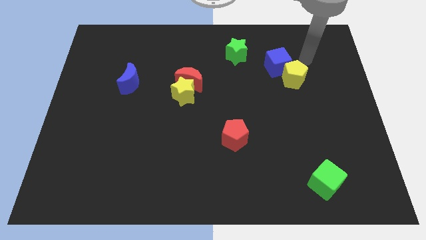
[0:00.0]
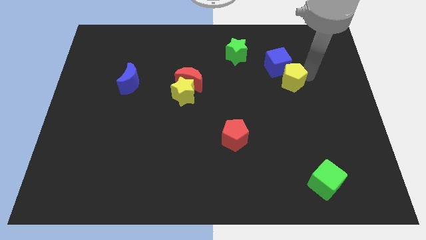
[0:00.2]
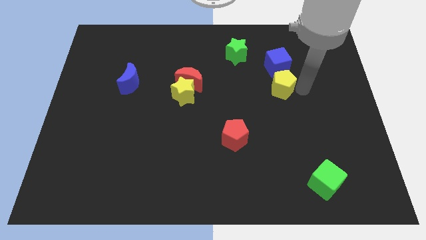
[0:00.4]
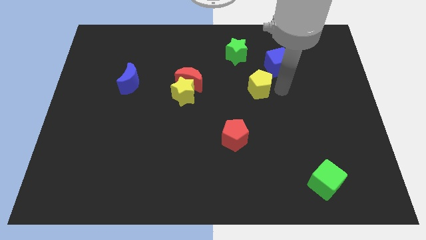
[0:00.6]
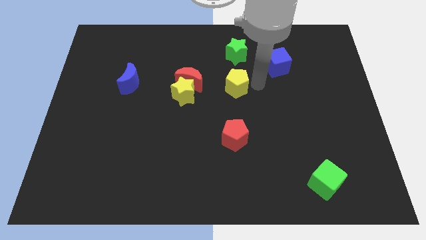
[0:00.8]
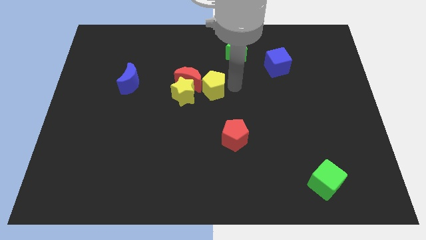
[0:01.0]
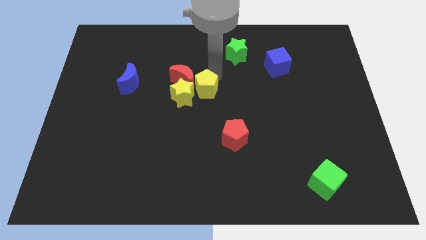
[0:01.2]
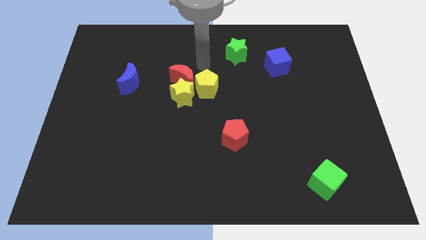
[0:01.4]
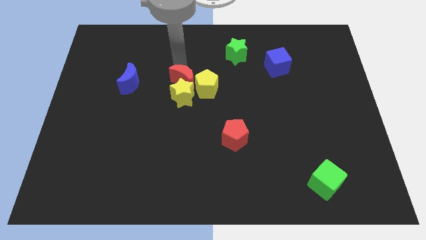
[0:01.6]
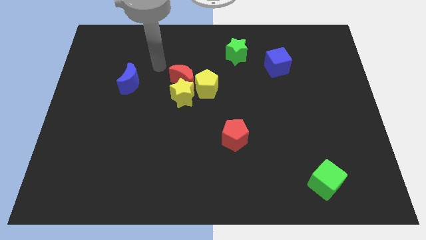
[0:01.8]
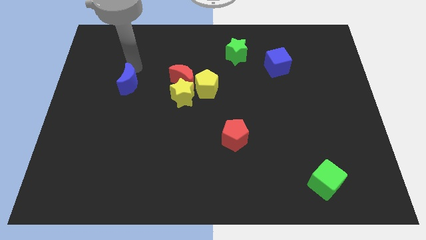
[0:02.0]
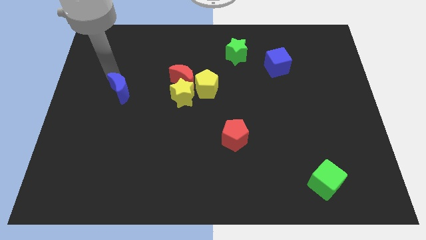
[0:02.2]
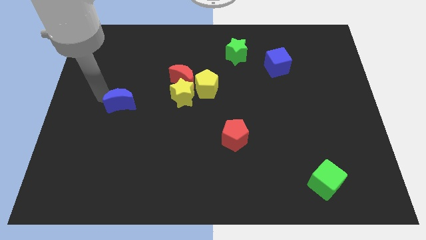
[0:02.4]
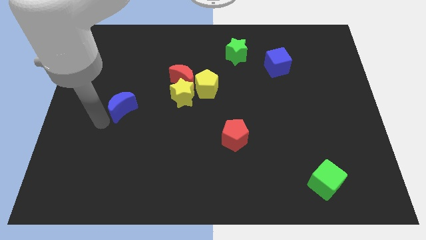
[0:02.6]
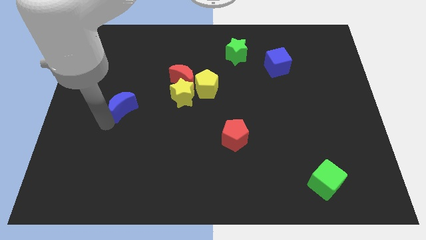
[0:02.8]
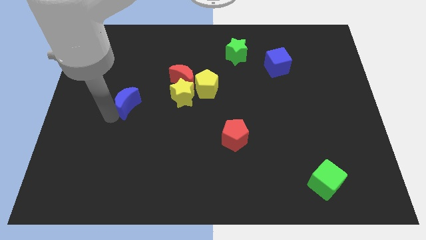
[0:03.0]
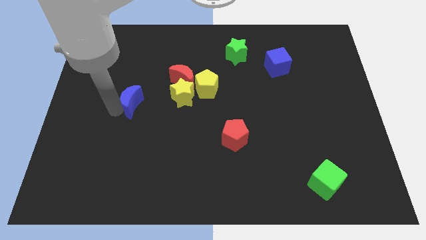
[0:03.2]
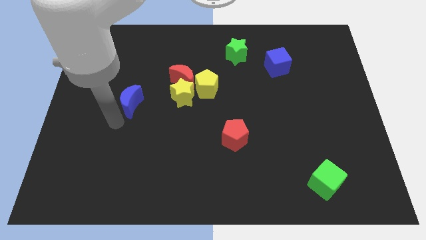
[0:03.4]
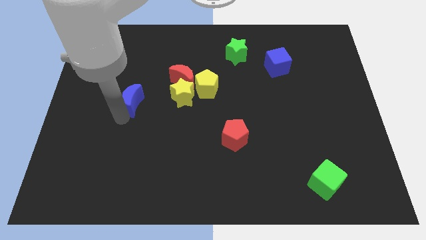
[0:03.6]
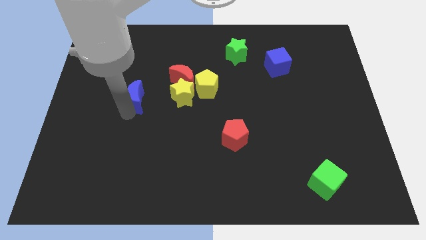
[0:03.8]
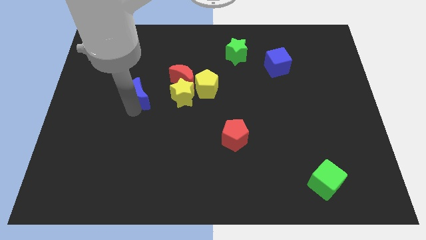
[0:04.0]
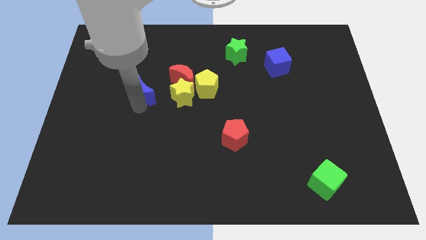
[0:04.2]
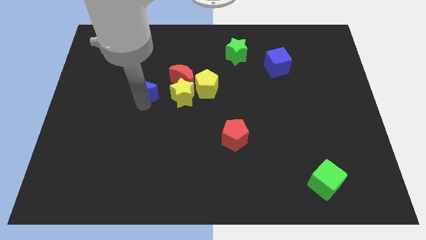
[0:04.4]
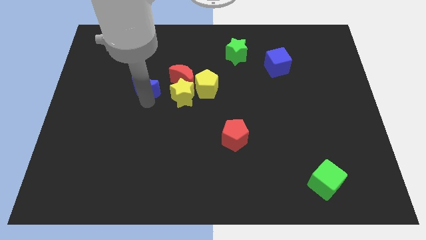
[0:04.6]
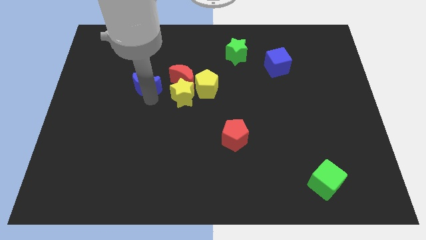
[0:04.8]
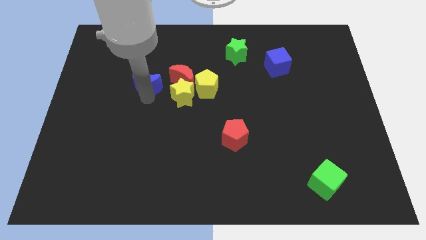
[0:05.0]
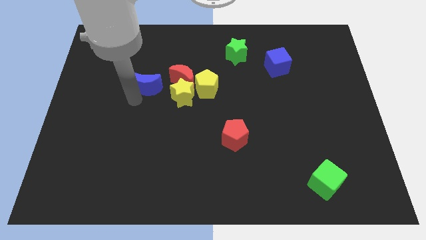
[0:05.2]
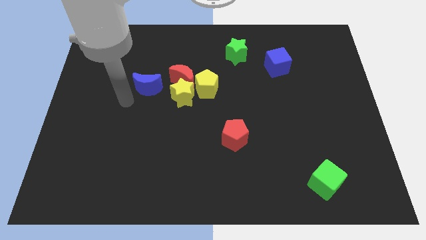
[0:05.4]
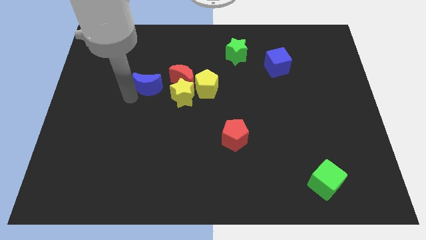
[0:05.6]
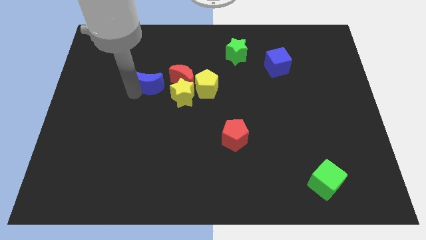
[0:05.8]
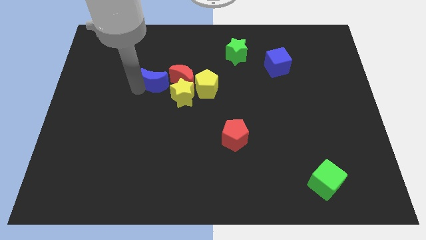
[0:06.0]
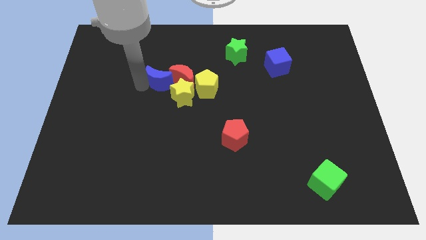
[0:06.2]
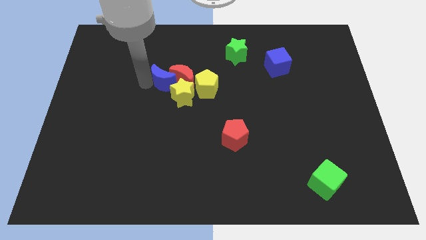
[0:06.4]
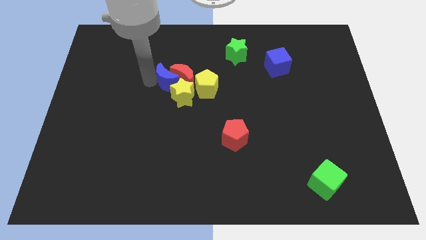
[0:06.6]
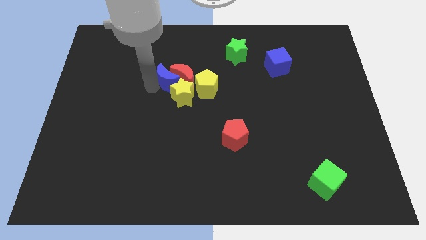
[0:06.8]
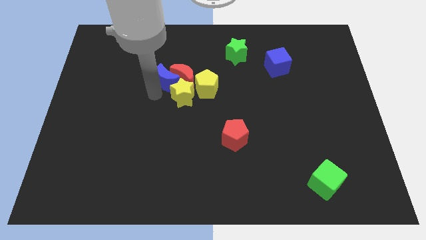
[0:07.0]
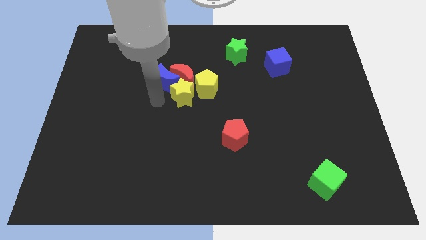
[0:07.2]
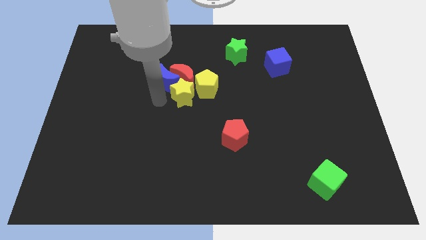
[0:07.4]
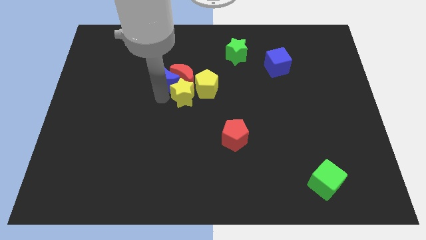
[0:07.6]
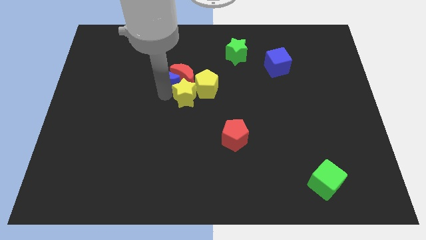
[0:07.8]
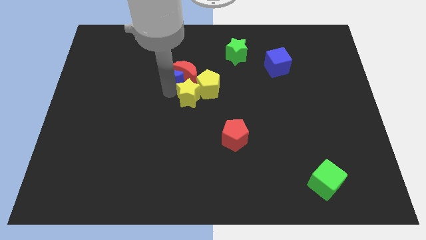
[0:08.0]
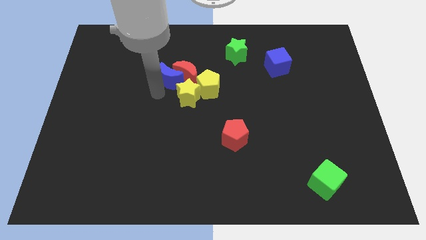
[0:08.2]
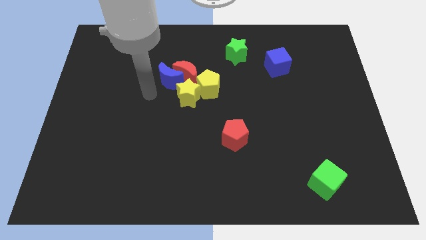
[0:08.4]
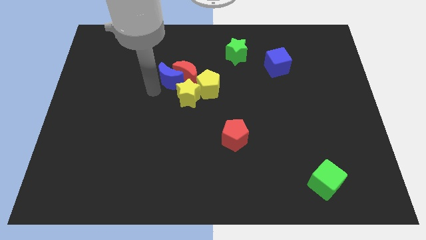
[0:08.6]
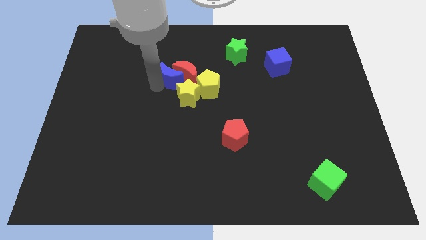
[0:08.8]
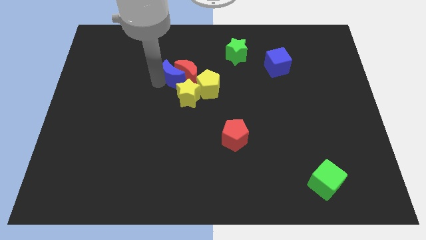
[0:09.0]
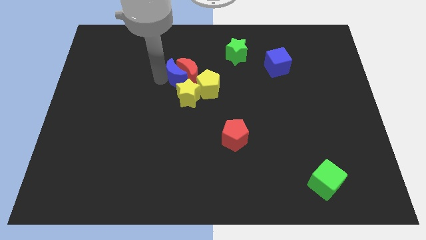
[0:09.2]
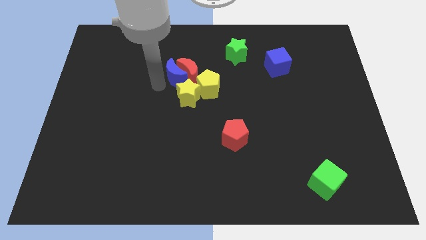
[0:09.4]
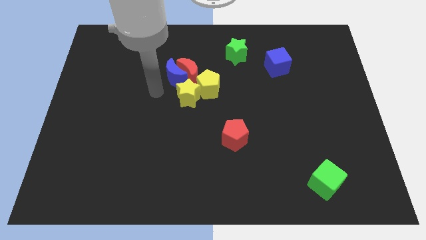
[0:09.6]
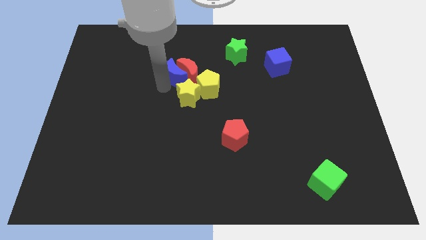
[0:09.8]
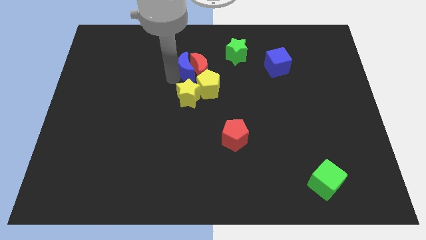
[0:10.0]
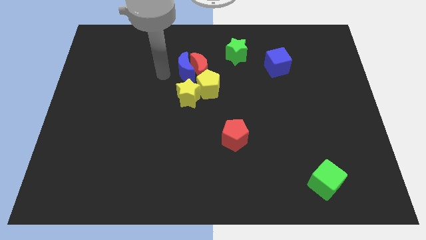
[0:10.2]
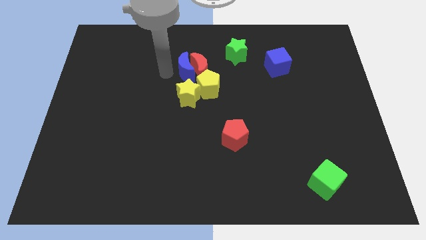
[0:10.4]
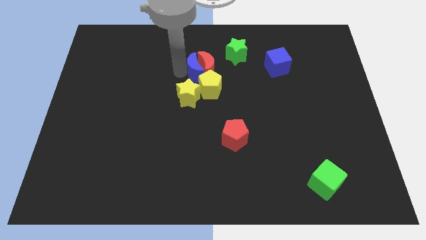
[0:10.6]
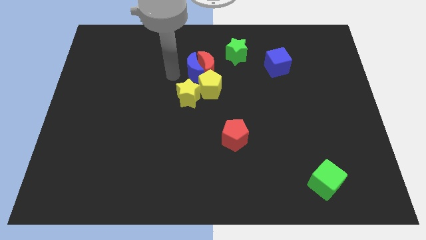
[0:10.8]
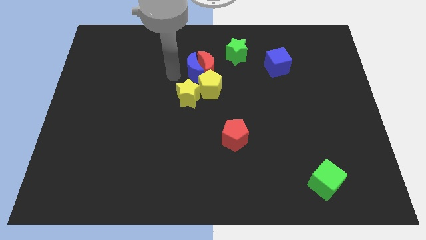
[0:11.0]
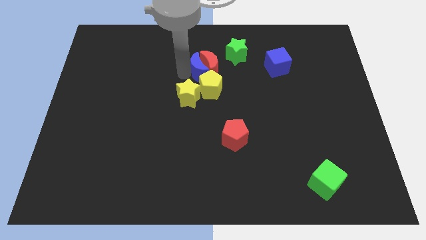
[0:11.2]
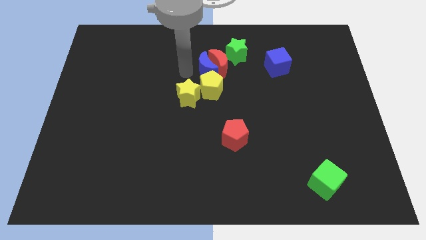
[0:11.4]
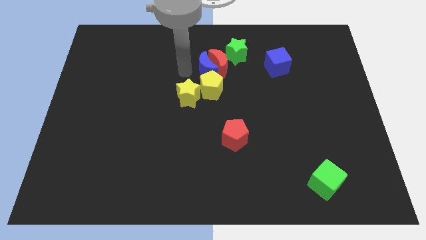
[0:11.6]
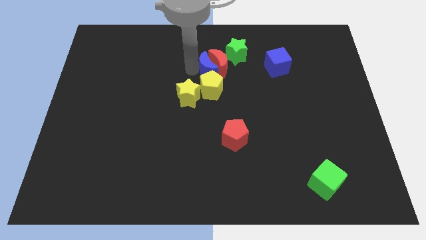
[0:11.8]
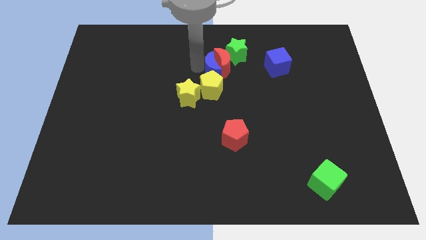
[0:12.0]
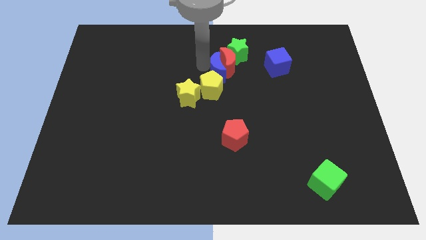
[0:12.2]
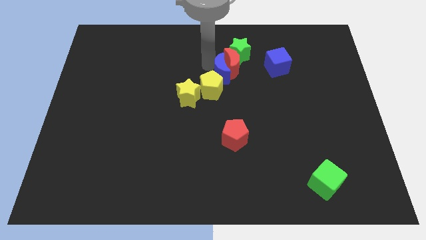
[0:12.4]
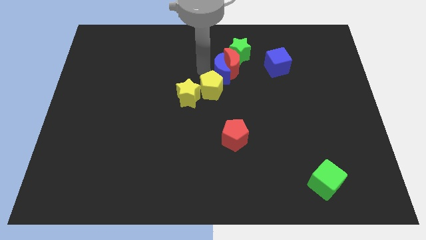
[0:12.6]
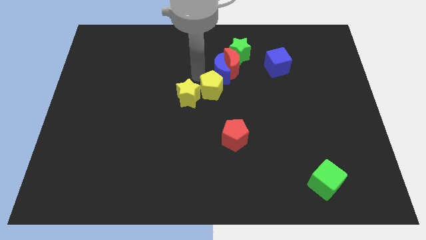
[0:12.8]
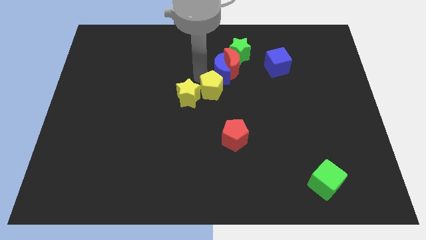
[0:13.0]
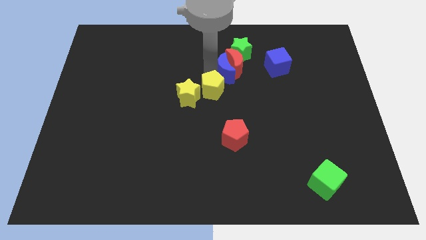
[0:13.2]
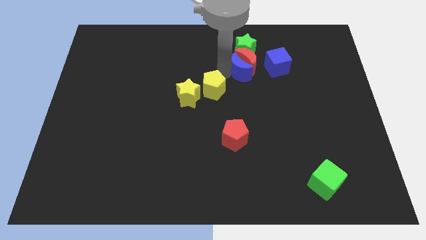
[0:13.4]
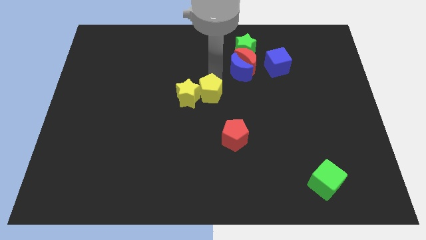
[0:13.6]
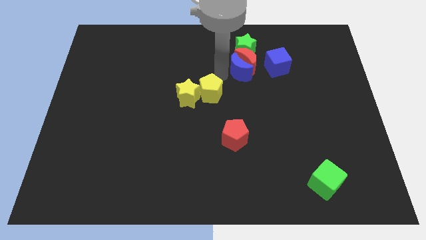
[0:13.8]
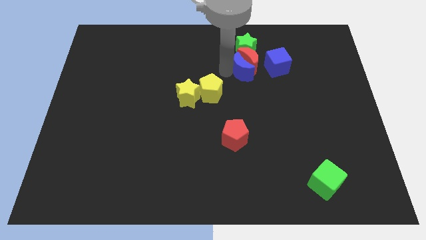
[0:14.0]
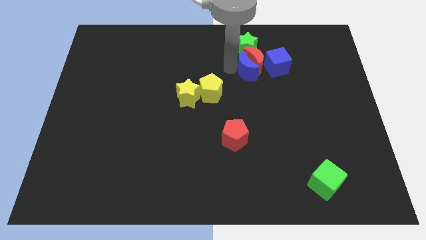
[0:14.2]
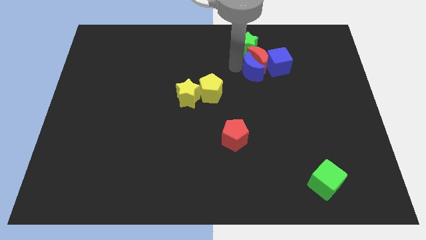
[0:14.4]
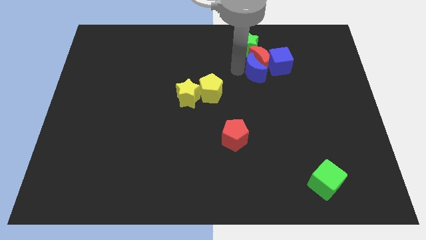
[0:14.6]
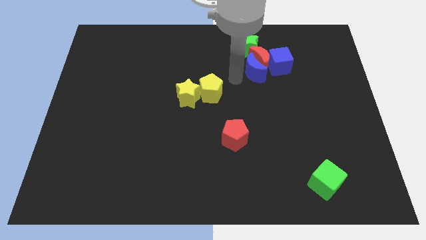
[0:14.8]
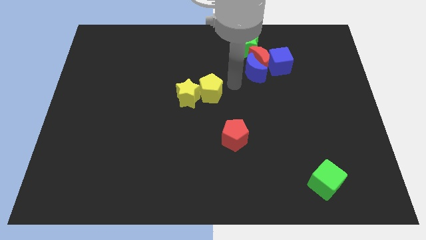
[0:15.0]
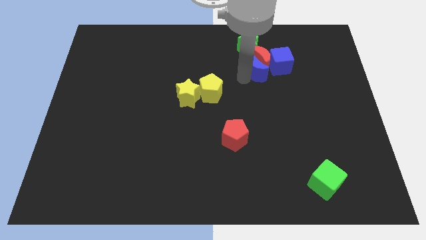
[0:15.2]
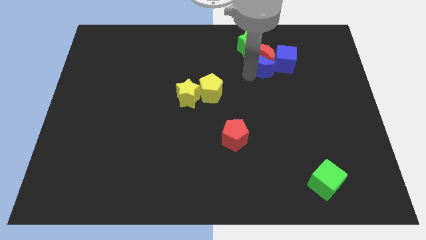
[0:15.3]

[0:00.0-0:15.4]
put the blue moon to the bottom right of the green star
